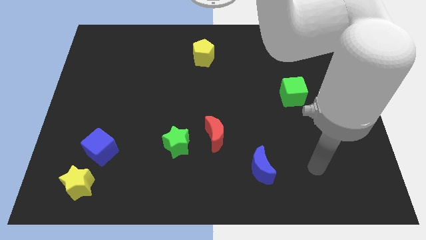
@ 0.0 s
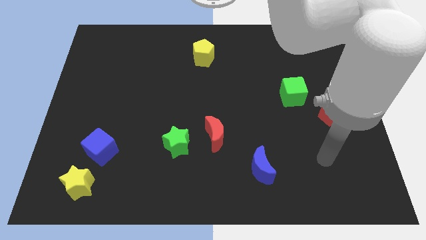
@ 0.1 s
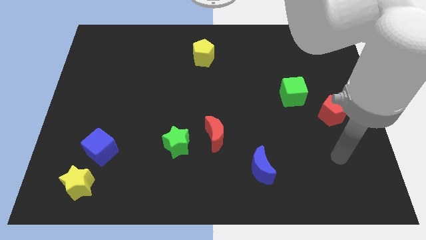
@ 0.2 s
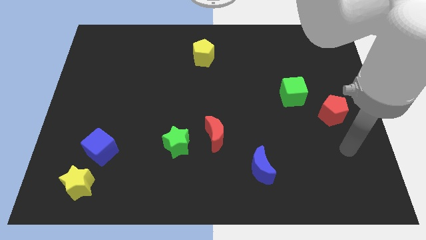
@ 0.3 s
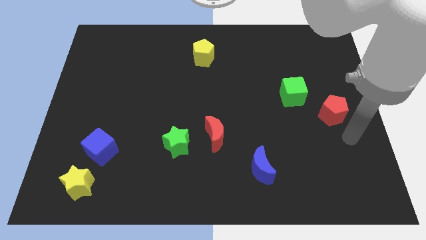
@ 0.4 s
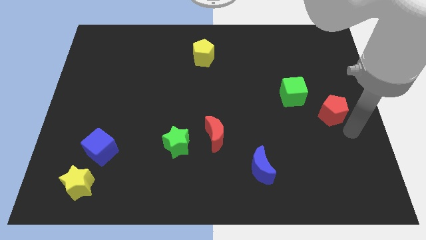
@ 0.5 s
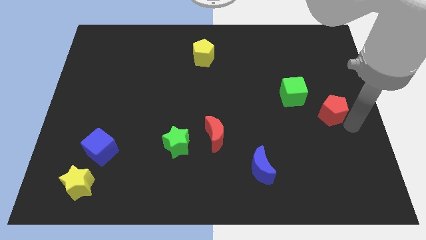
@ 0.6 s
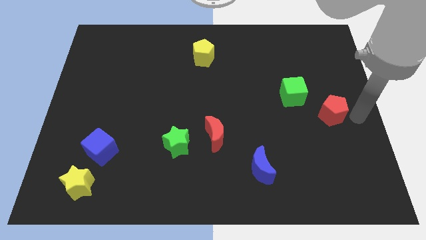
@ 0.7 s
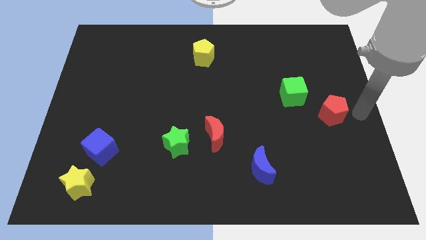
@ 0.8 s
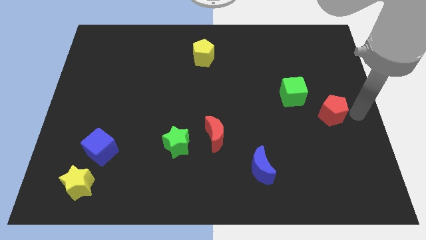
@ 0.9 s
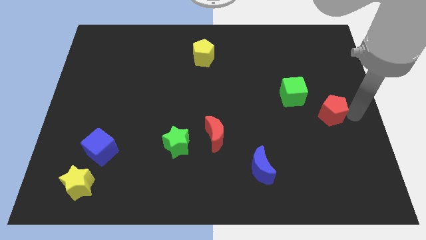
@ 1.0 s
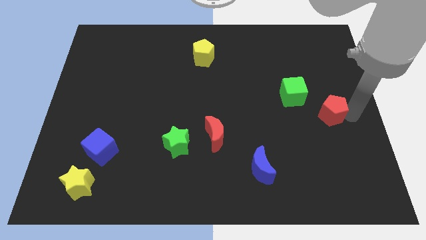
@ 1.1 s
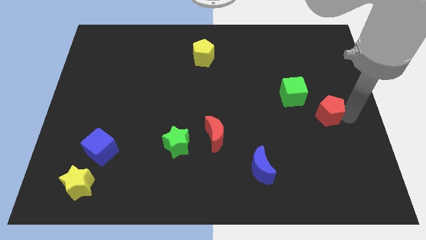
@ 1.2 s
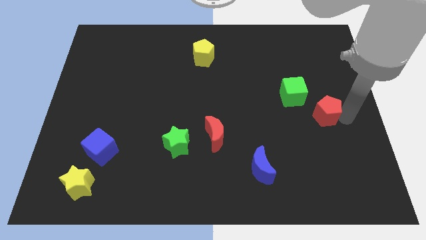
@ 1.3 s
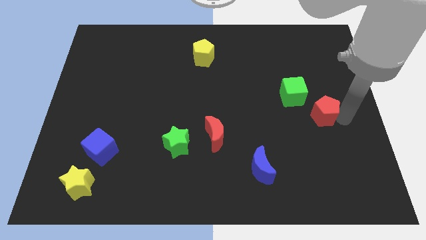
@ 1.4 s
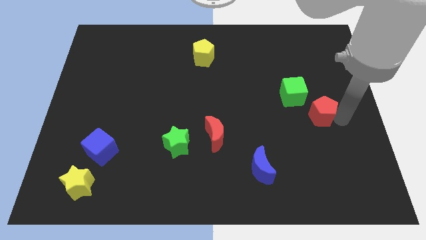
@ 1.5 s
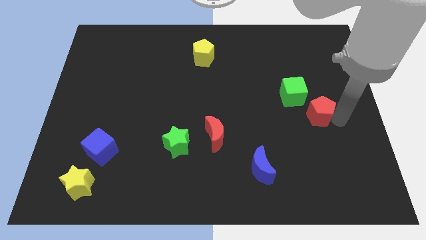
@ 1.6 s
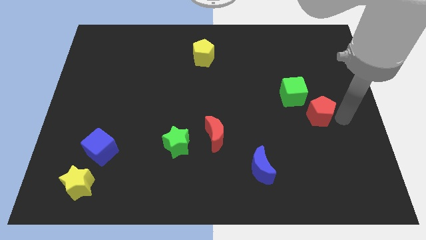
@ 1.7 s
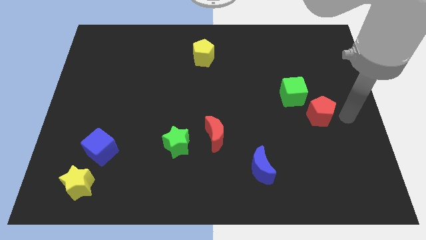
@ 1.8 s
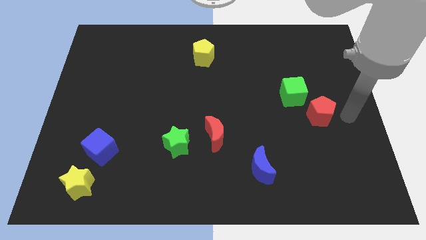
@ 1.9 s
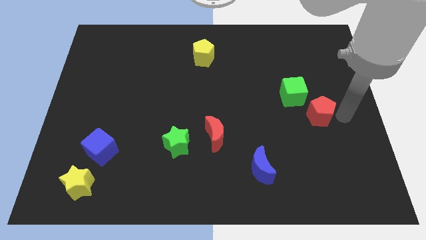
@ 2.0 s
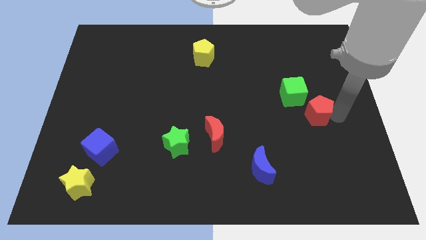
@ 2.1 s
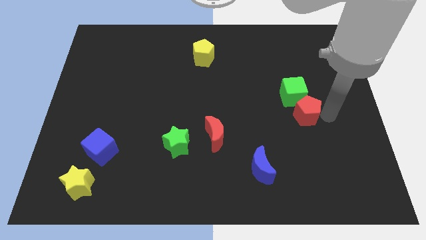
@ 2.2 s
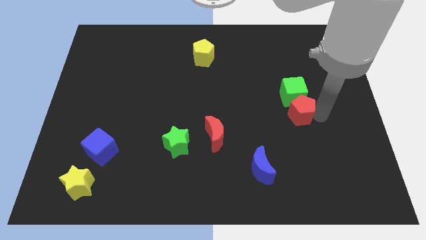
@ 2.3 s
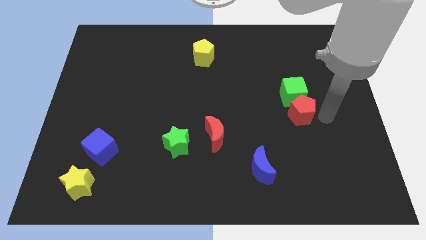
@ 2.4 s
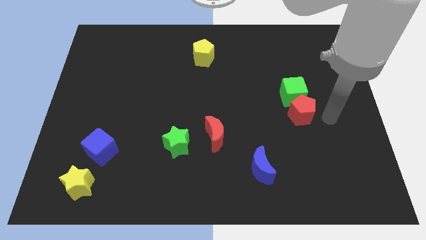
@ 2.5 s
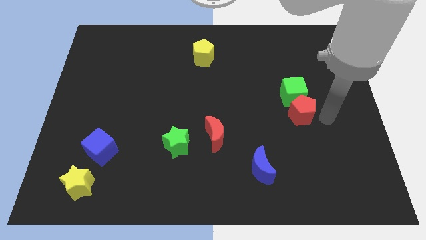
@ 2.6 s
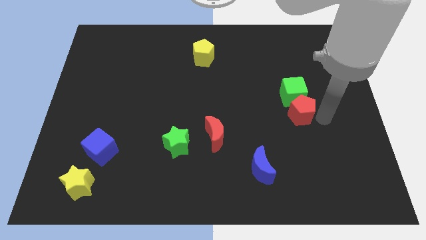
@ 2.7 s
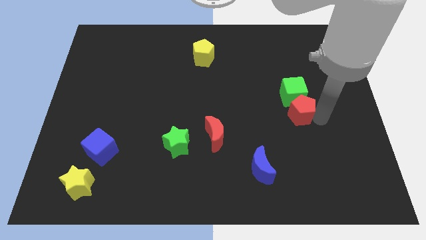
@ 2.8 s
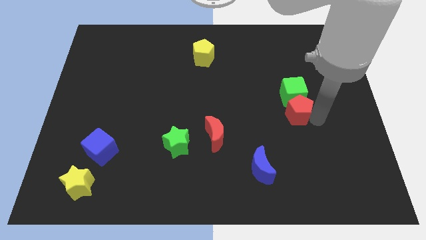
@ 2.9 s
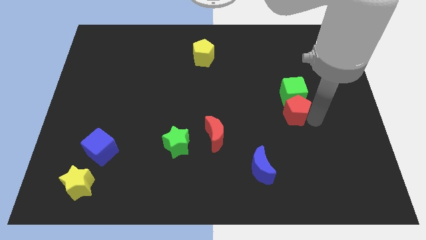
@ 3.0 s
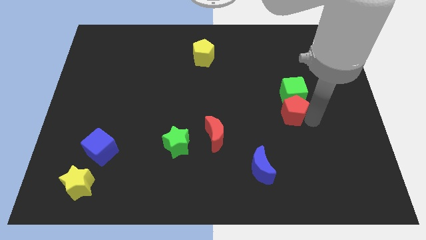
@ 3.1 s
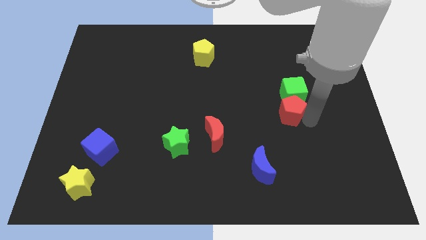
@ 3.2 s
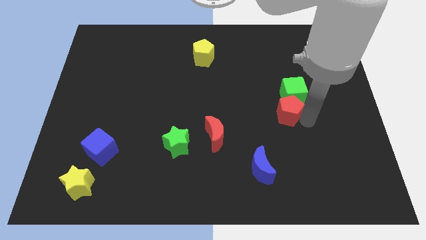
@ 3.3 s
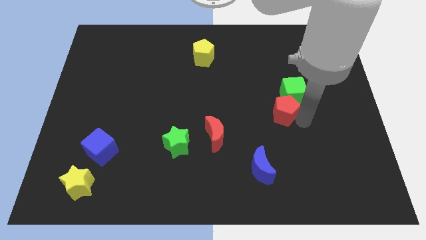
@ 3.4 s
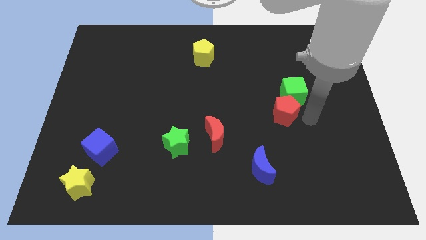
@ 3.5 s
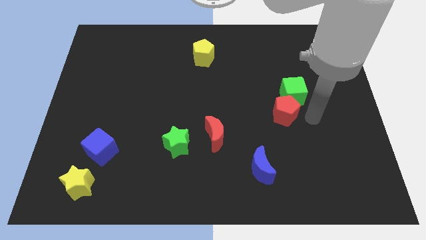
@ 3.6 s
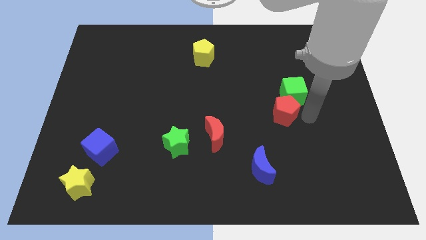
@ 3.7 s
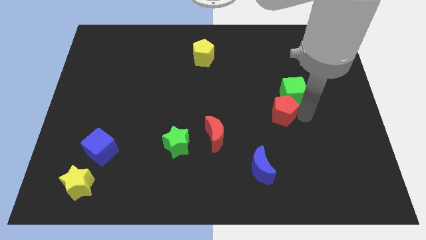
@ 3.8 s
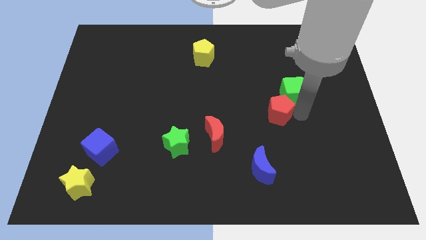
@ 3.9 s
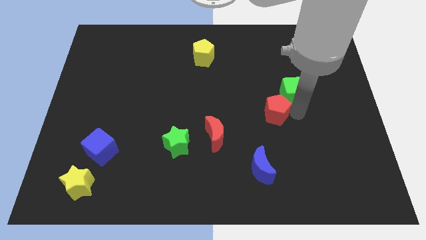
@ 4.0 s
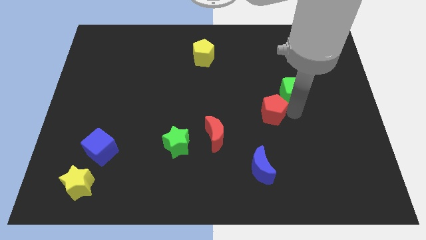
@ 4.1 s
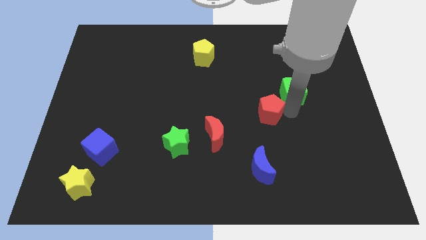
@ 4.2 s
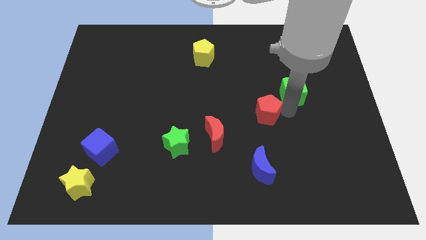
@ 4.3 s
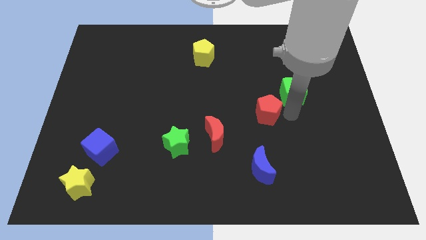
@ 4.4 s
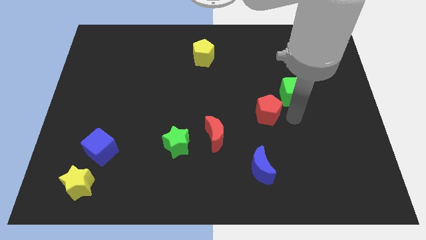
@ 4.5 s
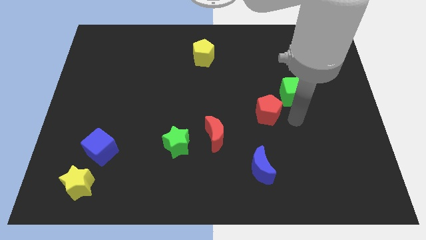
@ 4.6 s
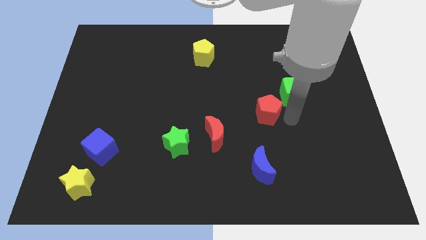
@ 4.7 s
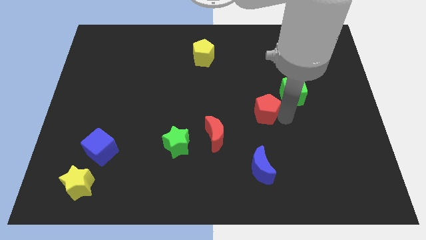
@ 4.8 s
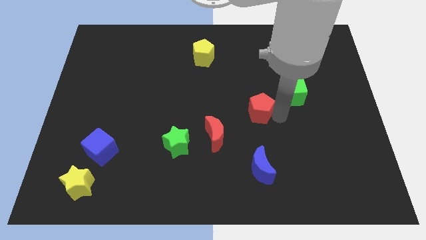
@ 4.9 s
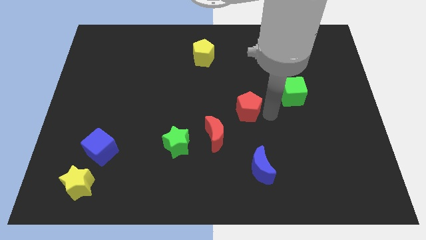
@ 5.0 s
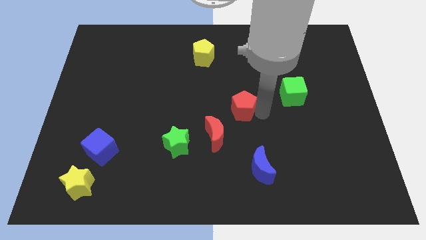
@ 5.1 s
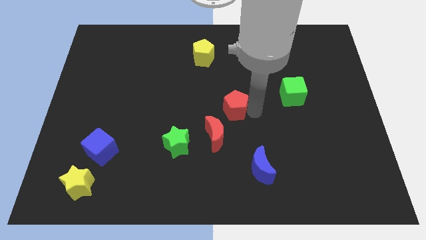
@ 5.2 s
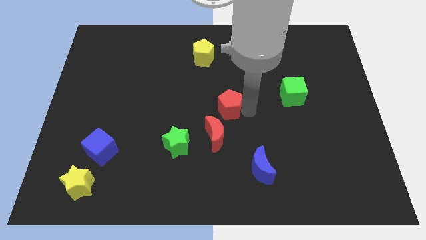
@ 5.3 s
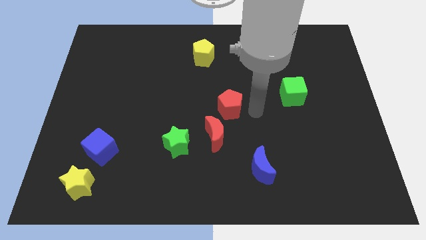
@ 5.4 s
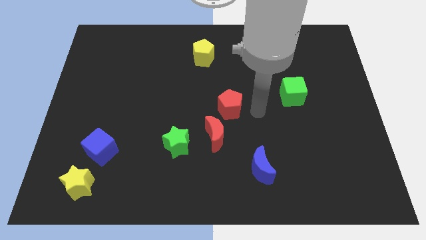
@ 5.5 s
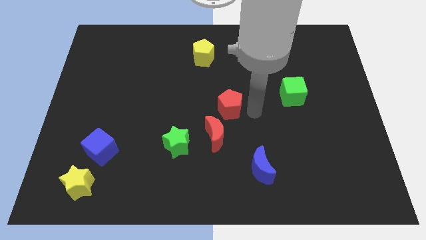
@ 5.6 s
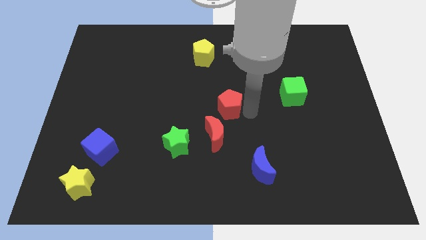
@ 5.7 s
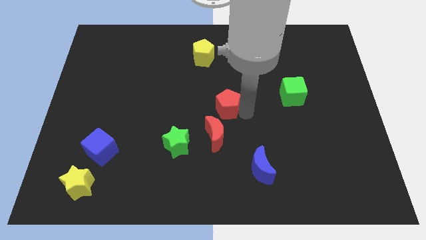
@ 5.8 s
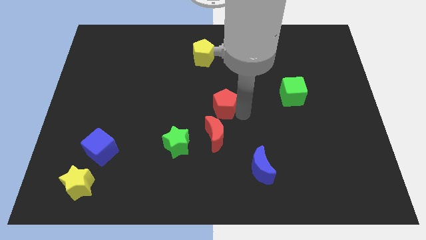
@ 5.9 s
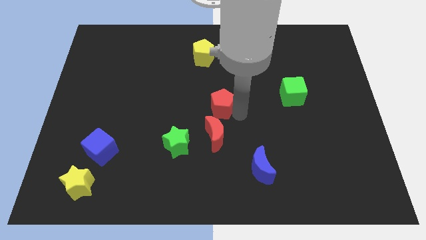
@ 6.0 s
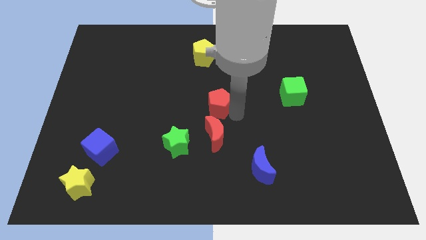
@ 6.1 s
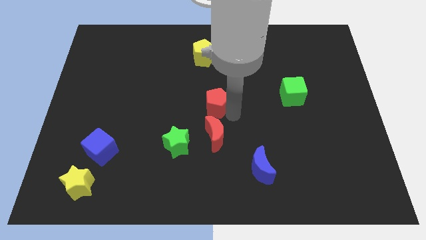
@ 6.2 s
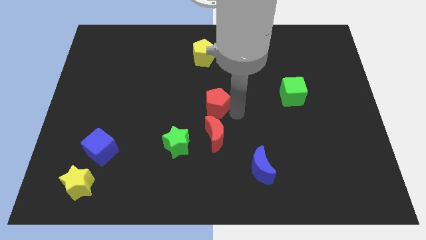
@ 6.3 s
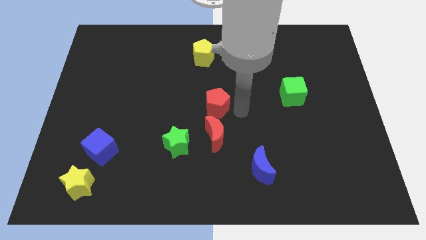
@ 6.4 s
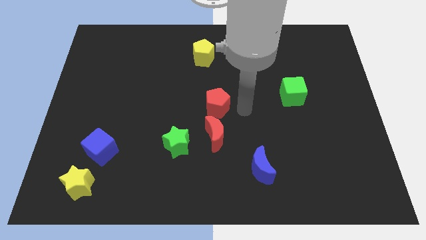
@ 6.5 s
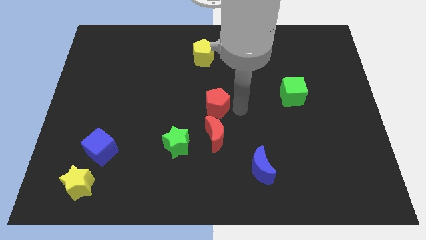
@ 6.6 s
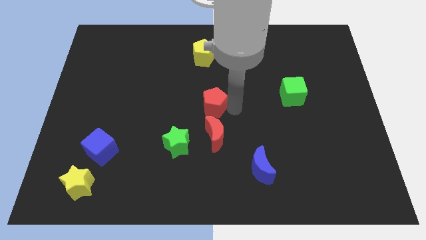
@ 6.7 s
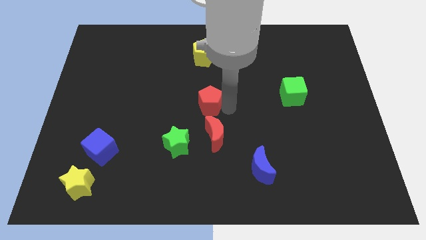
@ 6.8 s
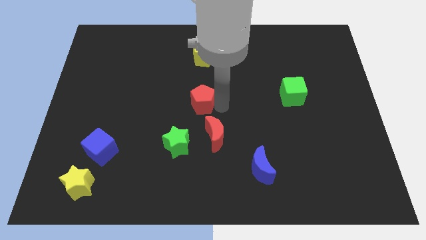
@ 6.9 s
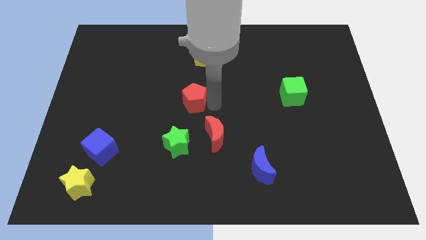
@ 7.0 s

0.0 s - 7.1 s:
push the red pentagon above the green star
